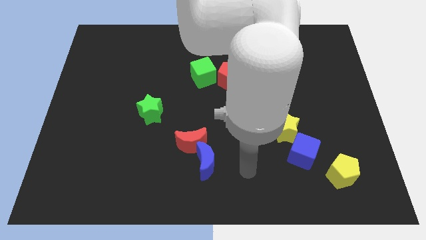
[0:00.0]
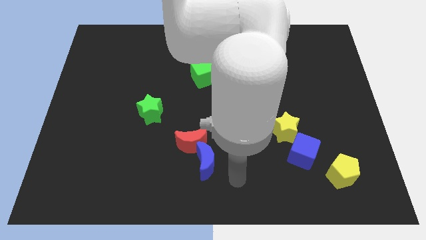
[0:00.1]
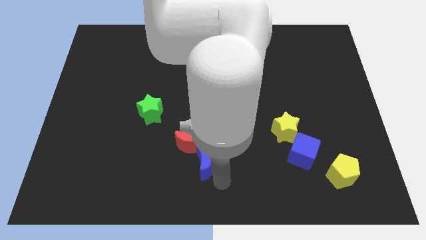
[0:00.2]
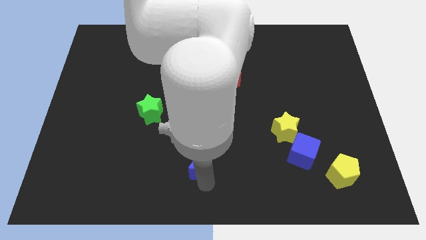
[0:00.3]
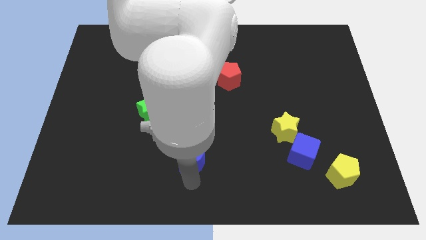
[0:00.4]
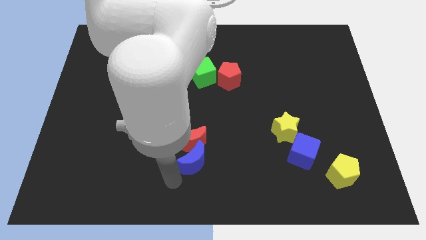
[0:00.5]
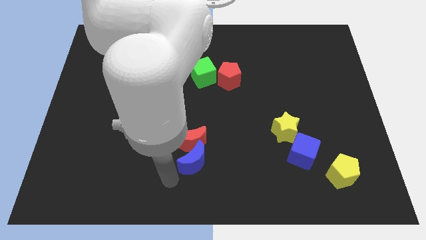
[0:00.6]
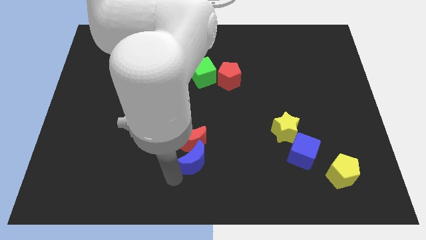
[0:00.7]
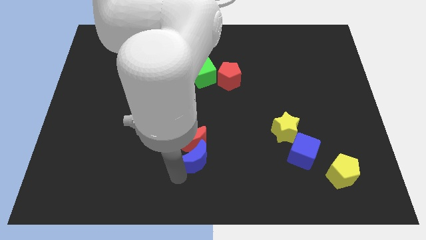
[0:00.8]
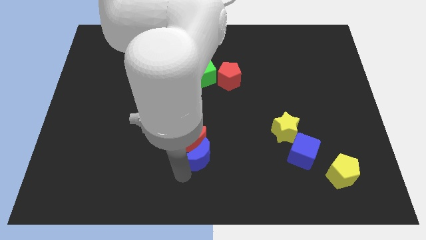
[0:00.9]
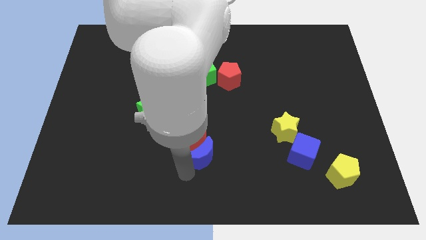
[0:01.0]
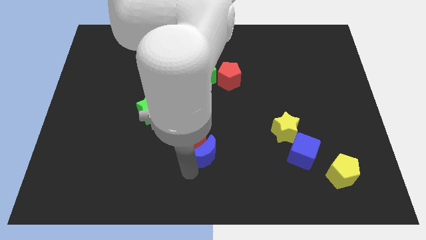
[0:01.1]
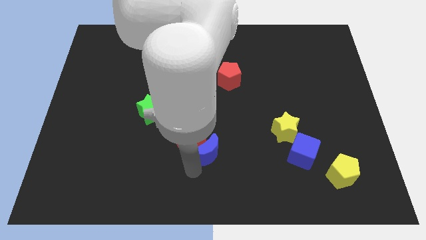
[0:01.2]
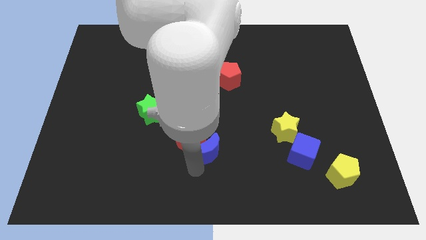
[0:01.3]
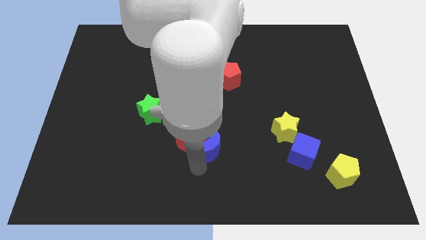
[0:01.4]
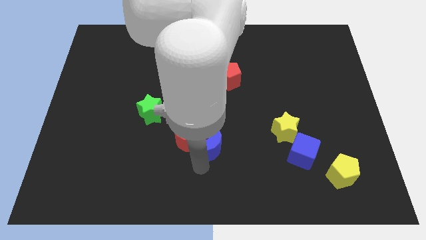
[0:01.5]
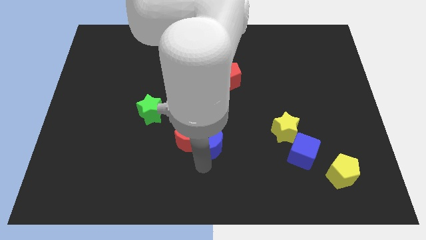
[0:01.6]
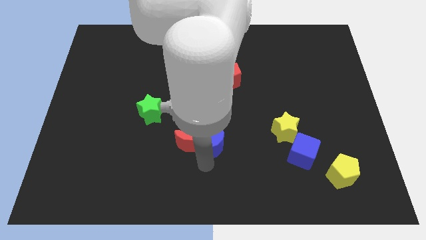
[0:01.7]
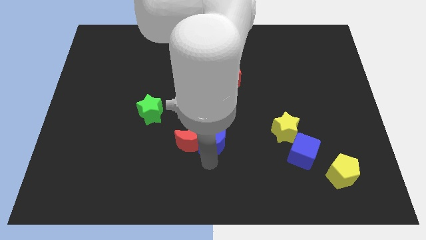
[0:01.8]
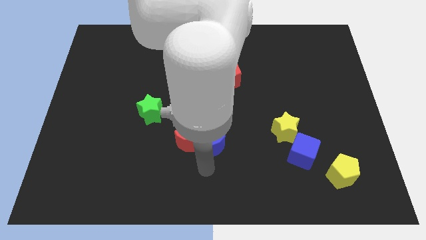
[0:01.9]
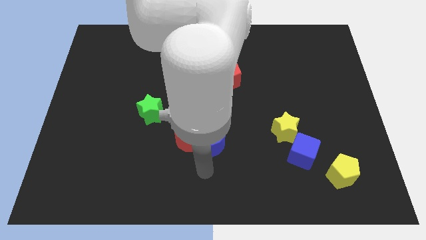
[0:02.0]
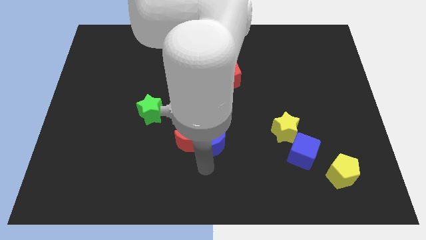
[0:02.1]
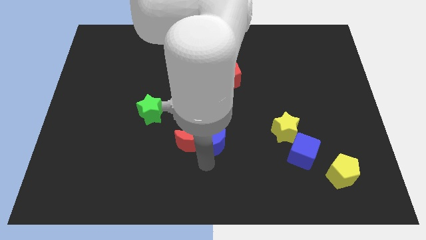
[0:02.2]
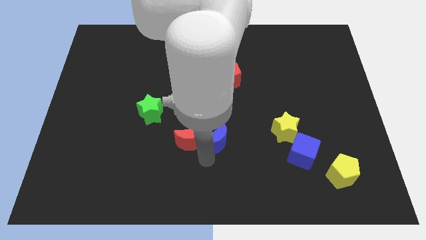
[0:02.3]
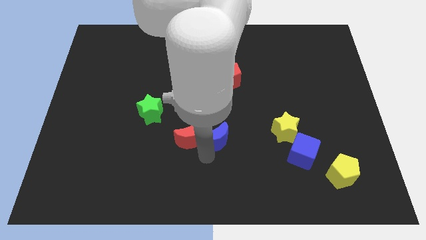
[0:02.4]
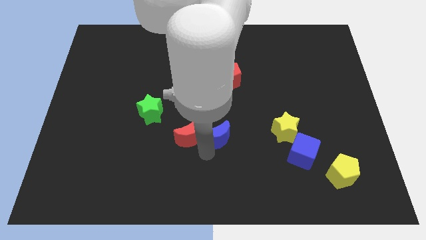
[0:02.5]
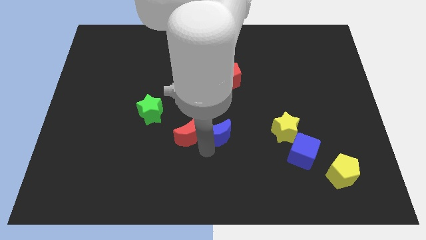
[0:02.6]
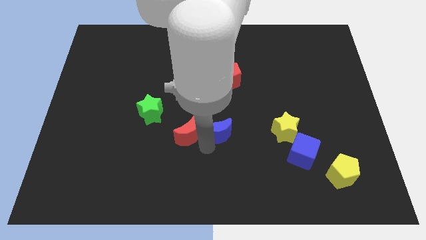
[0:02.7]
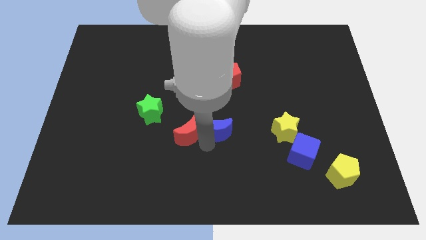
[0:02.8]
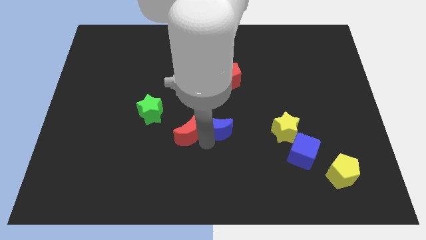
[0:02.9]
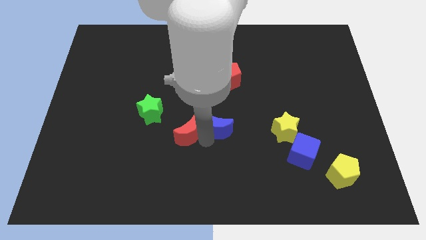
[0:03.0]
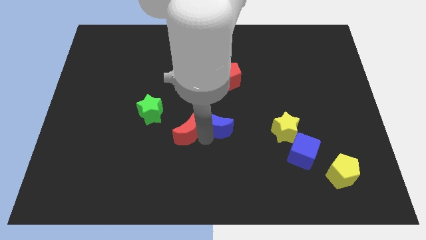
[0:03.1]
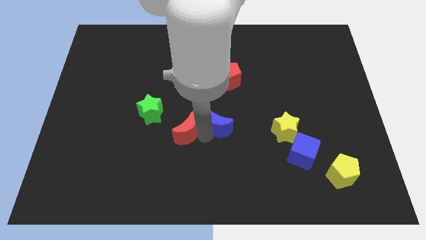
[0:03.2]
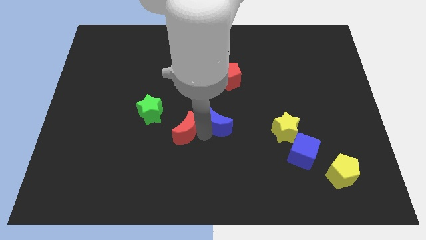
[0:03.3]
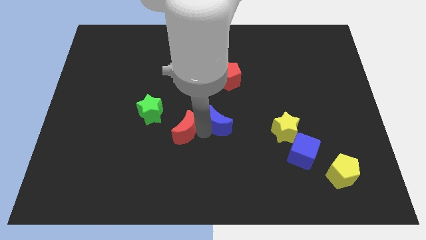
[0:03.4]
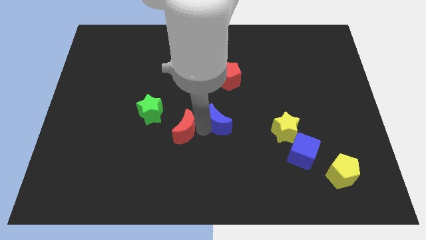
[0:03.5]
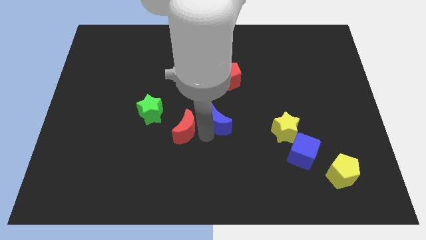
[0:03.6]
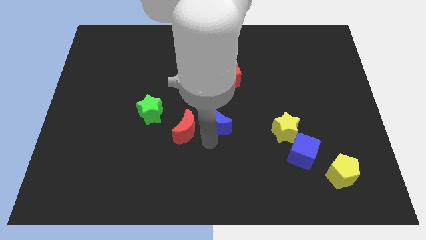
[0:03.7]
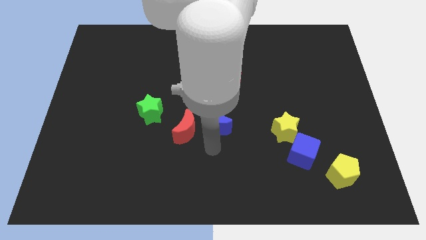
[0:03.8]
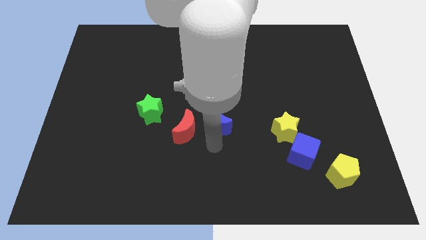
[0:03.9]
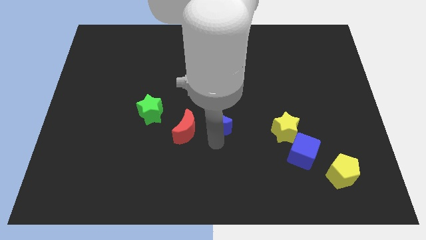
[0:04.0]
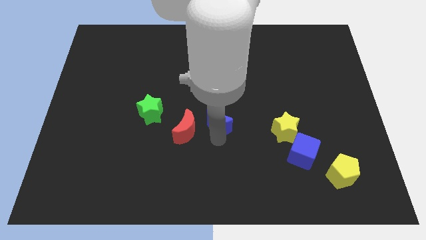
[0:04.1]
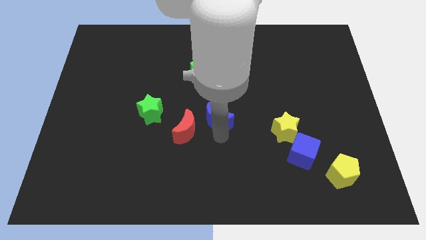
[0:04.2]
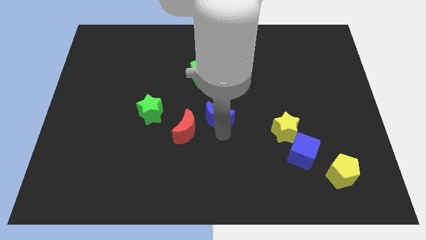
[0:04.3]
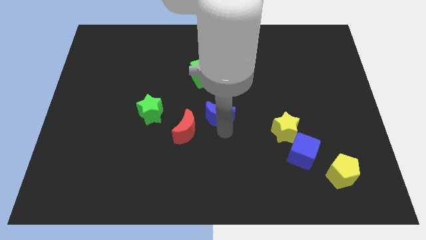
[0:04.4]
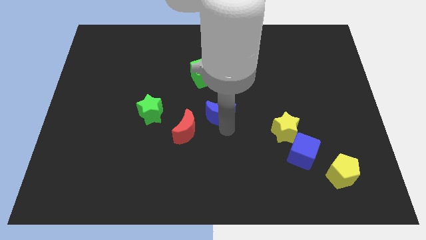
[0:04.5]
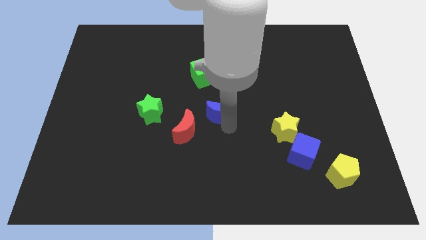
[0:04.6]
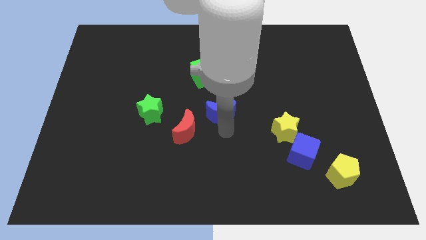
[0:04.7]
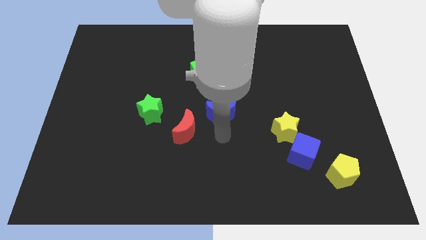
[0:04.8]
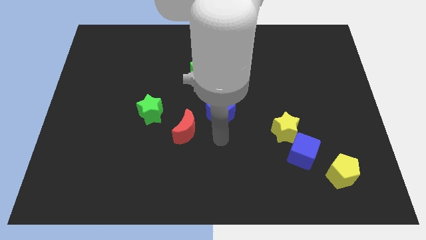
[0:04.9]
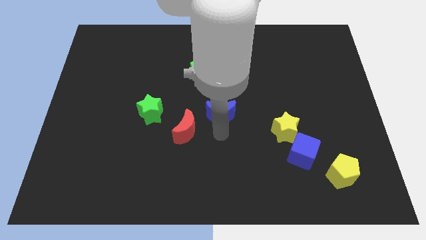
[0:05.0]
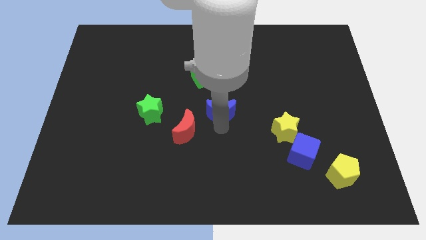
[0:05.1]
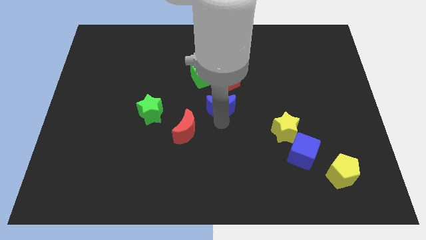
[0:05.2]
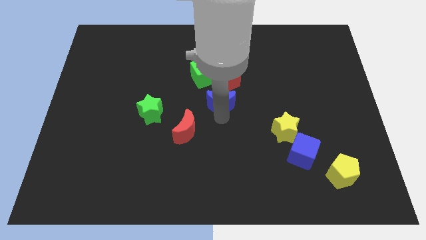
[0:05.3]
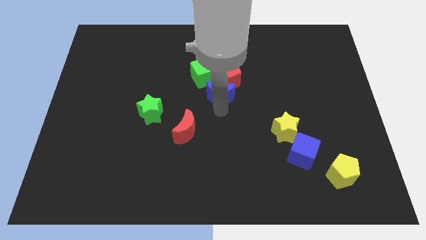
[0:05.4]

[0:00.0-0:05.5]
put the blue moon to the red pentagon
